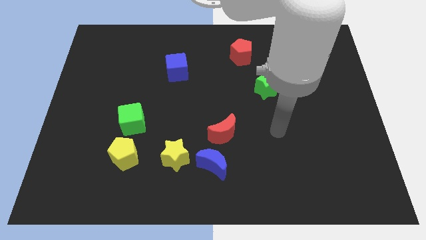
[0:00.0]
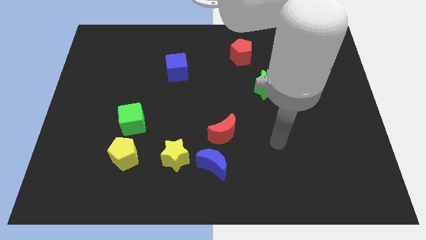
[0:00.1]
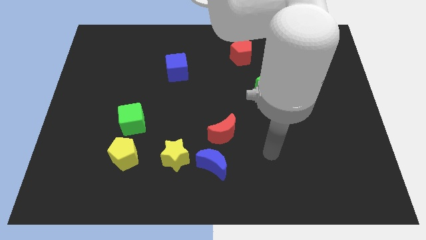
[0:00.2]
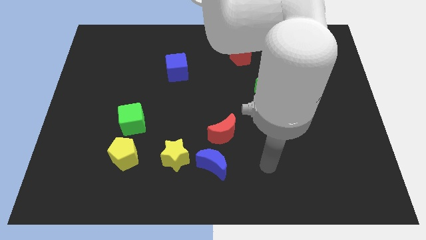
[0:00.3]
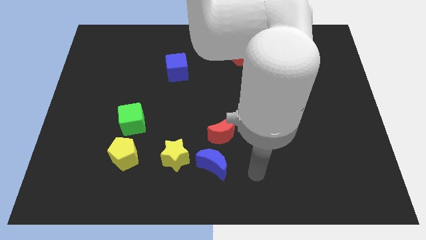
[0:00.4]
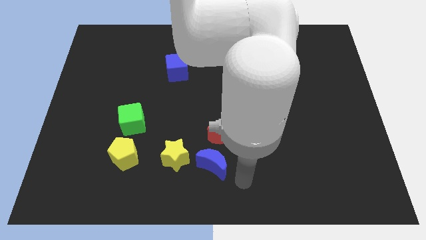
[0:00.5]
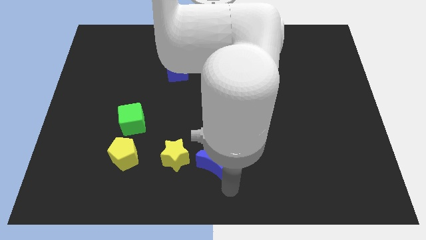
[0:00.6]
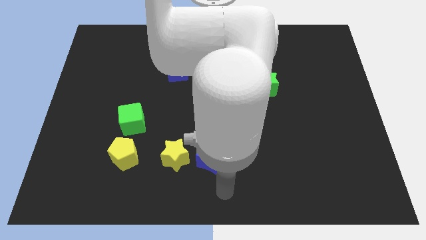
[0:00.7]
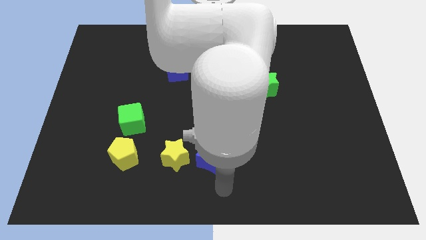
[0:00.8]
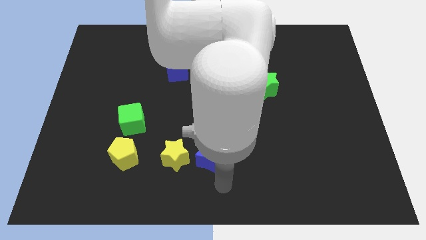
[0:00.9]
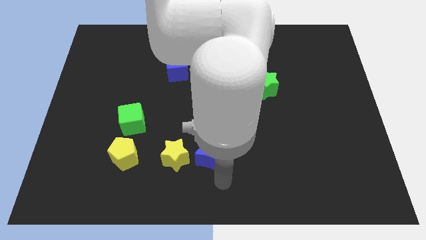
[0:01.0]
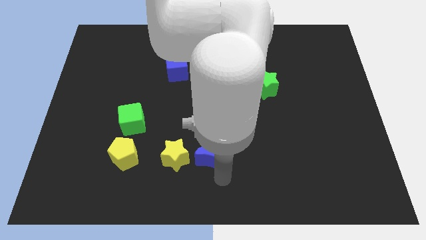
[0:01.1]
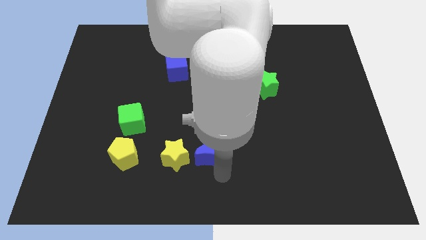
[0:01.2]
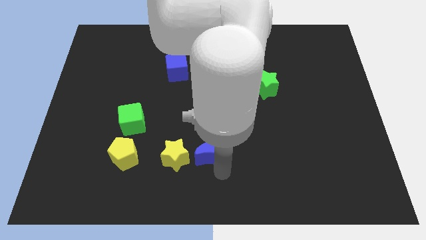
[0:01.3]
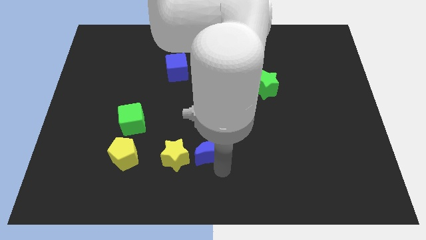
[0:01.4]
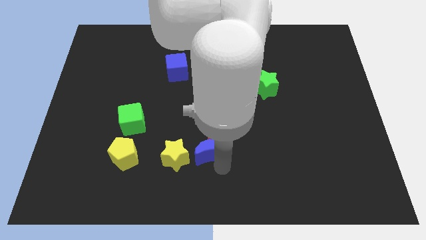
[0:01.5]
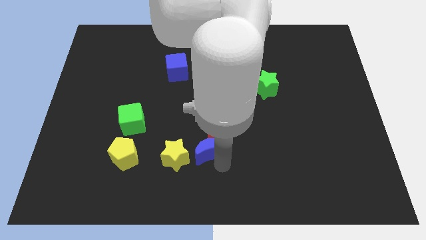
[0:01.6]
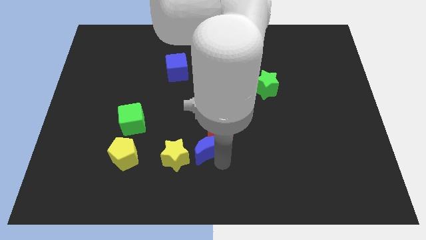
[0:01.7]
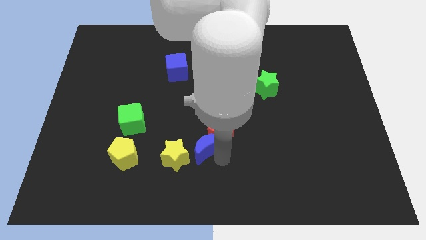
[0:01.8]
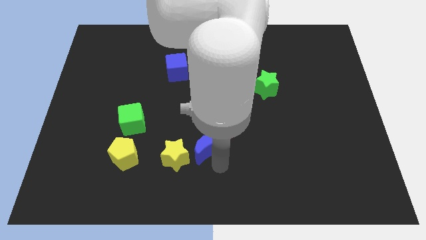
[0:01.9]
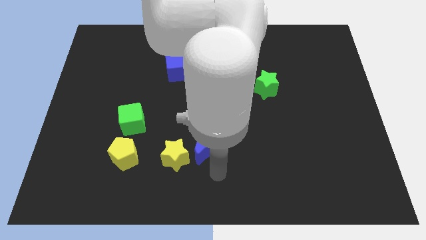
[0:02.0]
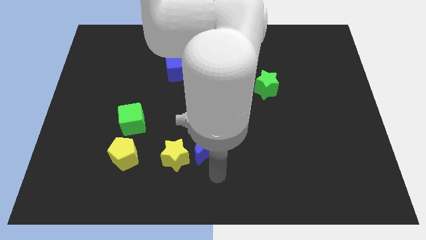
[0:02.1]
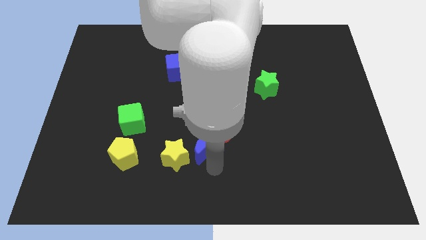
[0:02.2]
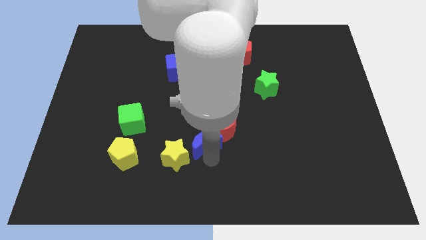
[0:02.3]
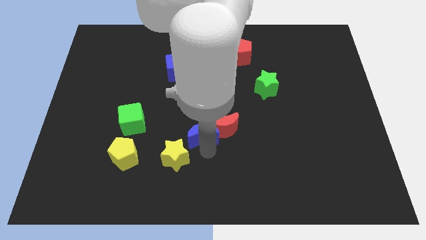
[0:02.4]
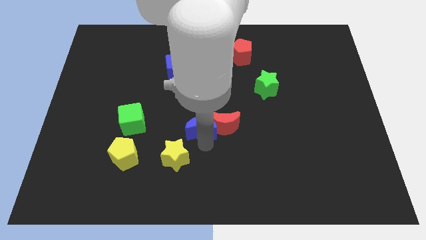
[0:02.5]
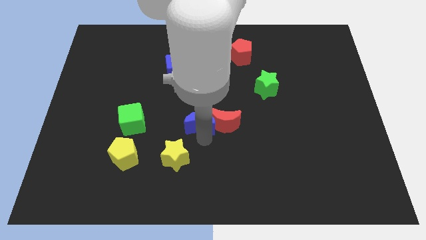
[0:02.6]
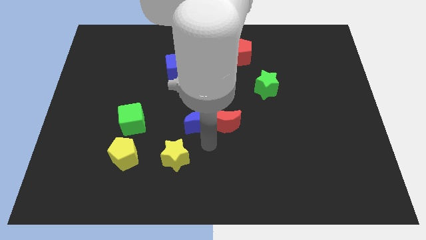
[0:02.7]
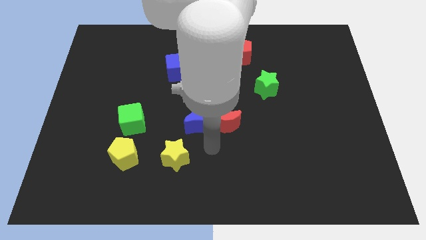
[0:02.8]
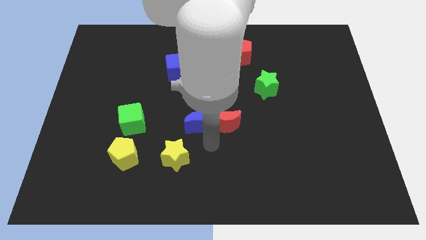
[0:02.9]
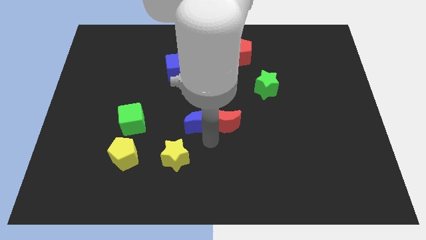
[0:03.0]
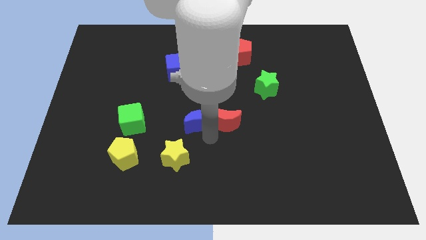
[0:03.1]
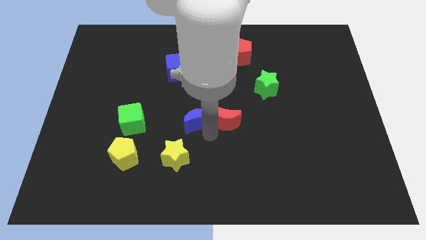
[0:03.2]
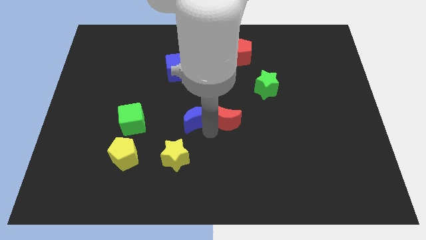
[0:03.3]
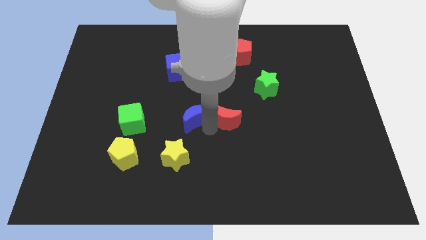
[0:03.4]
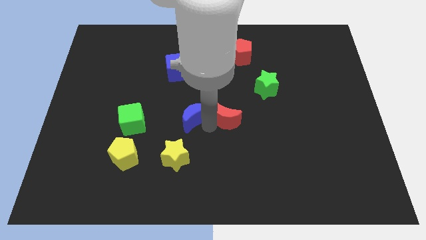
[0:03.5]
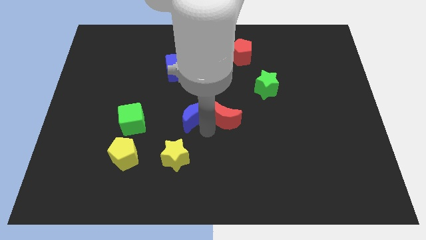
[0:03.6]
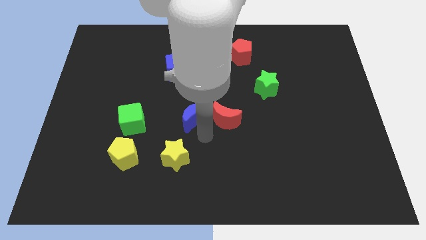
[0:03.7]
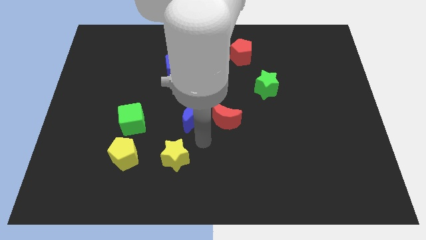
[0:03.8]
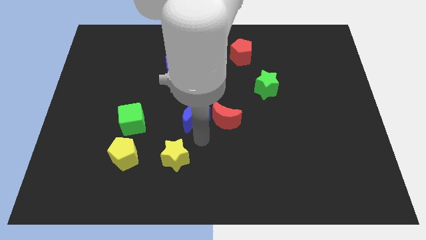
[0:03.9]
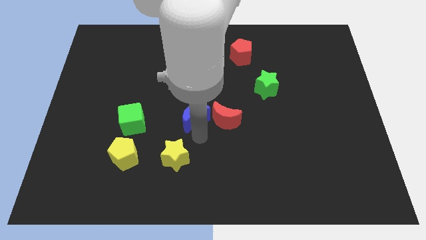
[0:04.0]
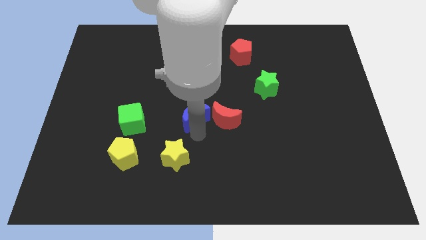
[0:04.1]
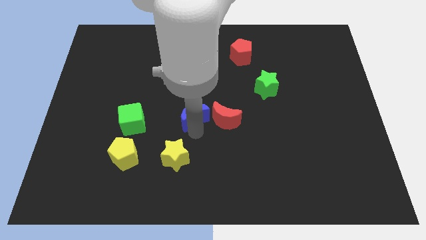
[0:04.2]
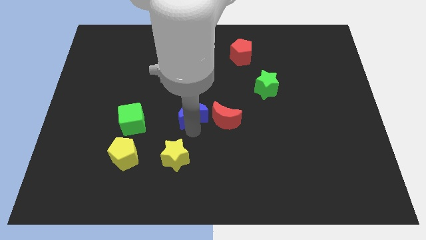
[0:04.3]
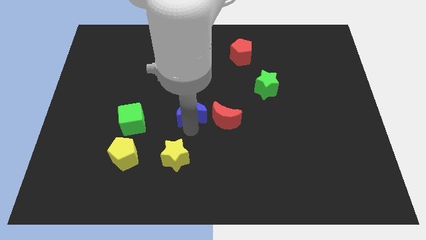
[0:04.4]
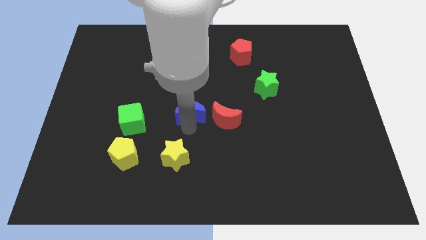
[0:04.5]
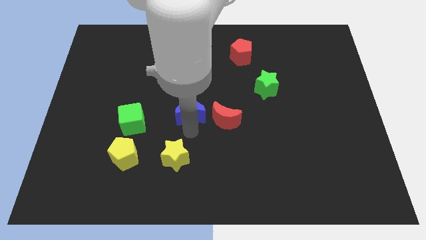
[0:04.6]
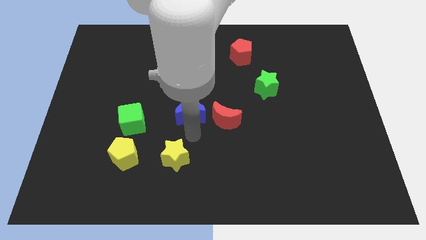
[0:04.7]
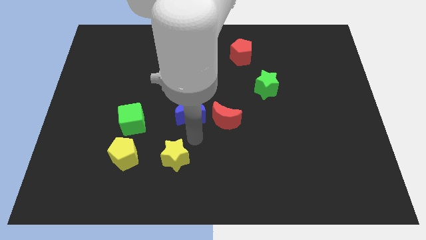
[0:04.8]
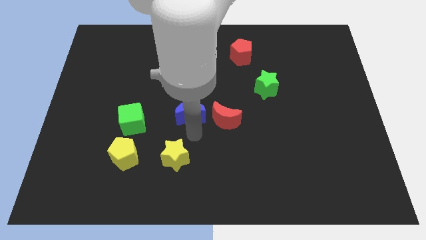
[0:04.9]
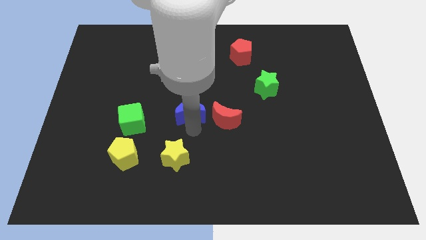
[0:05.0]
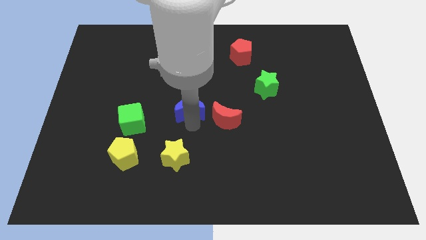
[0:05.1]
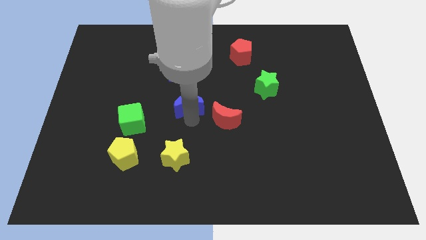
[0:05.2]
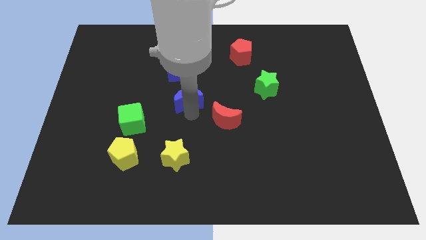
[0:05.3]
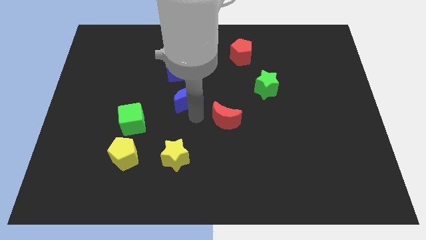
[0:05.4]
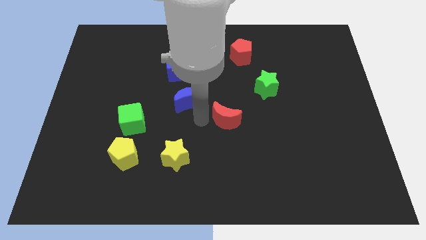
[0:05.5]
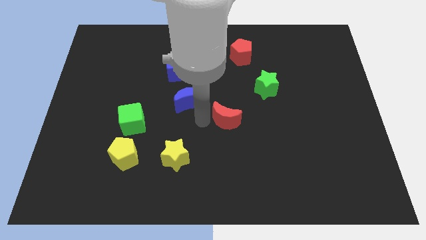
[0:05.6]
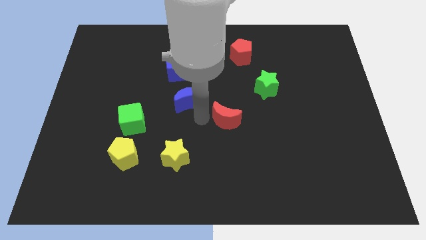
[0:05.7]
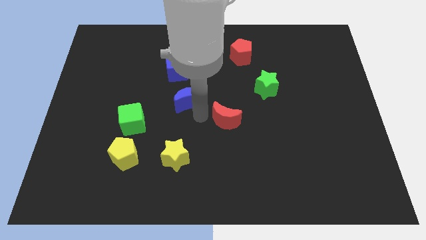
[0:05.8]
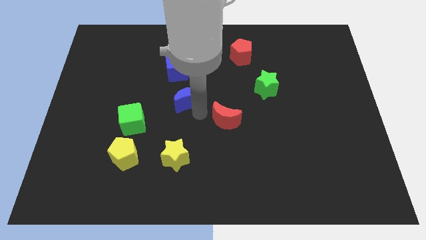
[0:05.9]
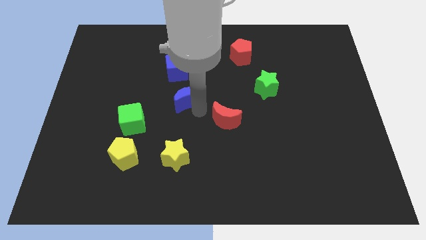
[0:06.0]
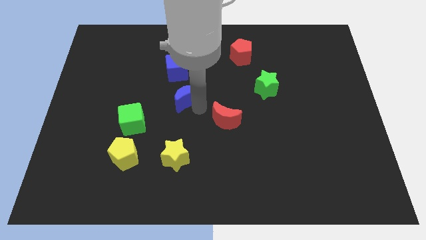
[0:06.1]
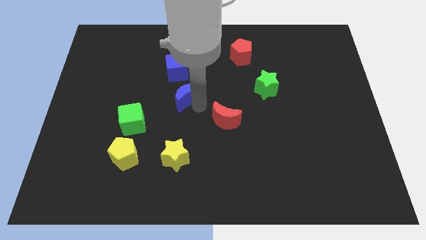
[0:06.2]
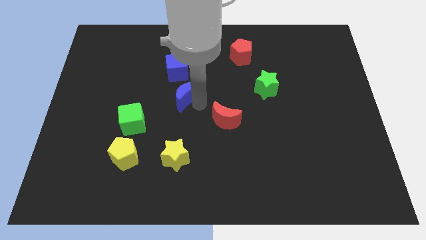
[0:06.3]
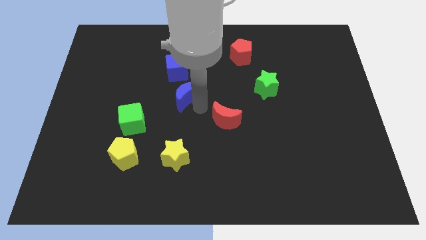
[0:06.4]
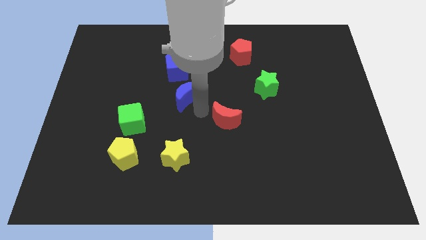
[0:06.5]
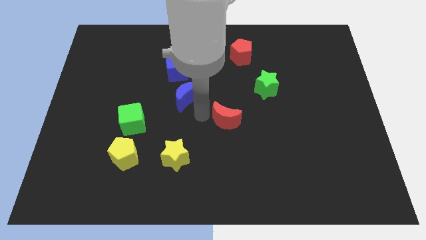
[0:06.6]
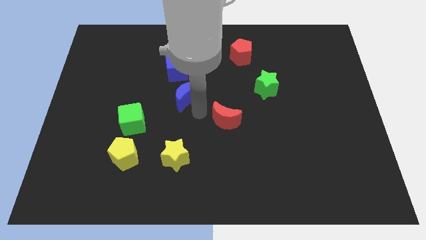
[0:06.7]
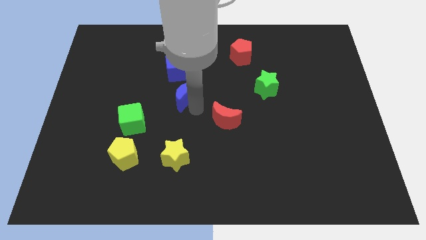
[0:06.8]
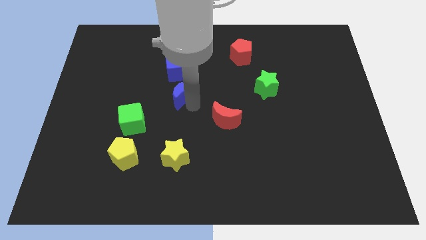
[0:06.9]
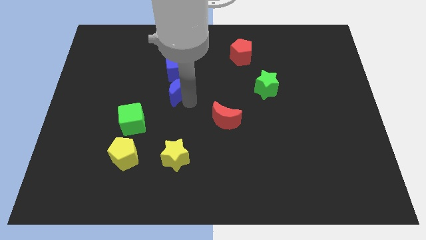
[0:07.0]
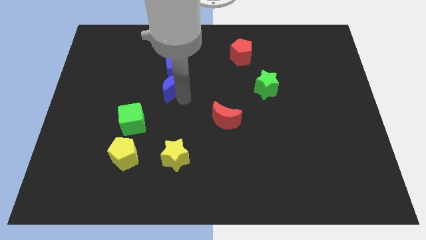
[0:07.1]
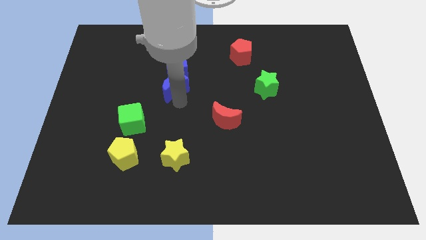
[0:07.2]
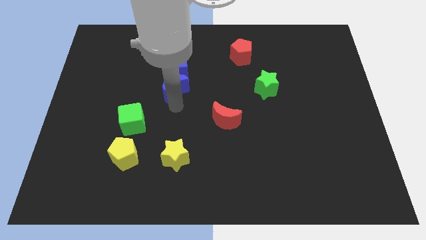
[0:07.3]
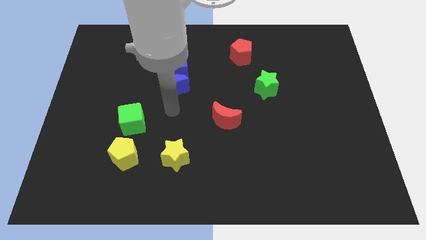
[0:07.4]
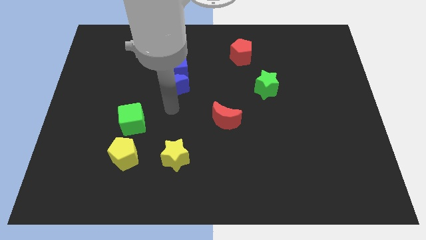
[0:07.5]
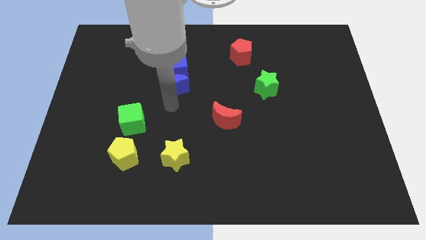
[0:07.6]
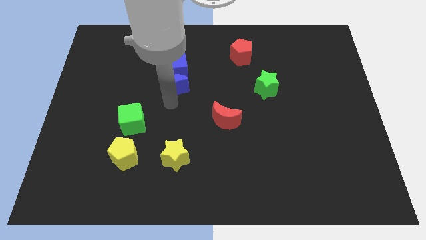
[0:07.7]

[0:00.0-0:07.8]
move the blue moon next to the blue cube

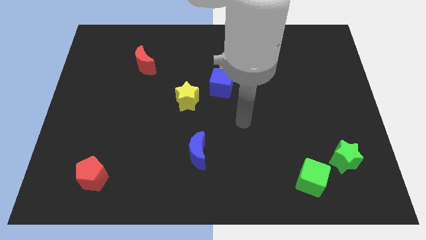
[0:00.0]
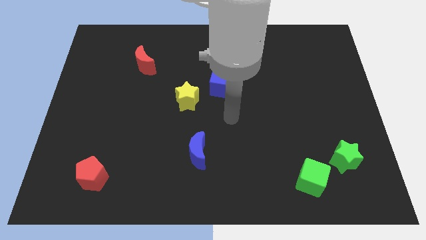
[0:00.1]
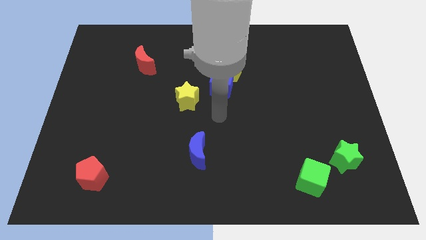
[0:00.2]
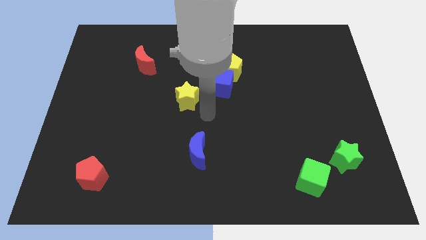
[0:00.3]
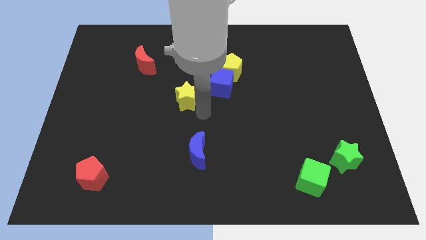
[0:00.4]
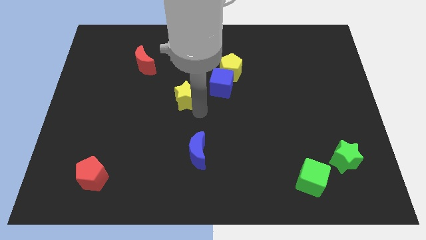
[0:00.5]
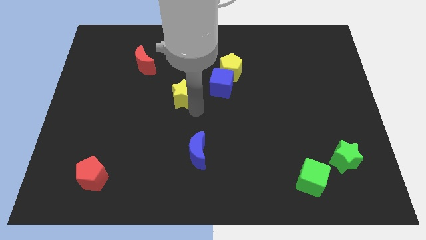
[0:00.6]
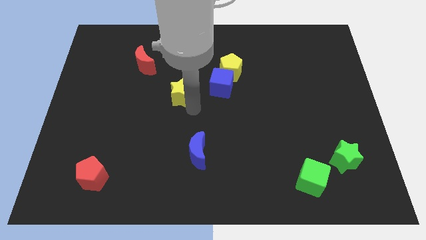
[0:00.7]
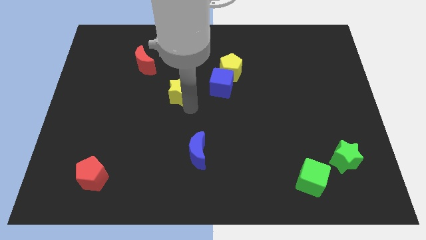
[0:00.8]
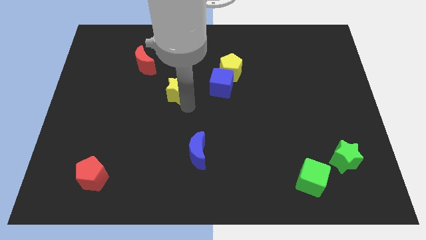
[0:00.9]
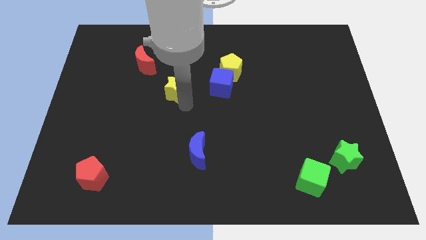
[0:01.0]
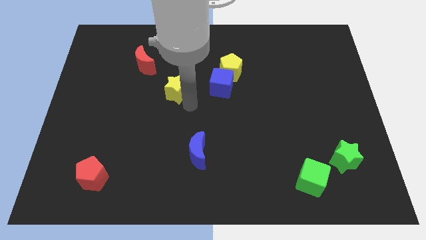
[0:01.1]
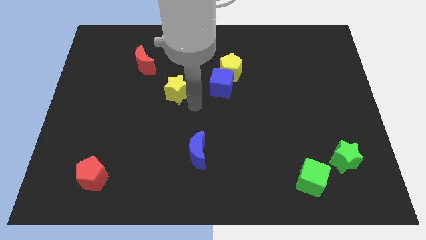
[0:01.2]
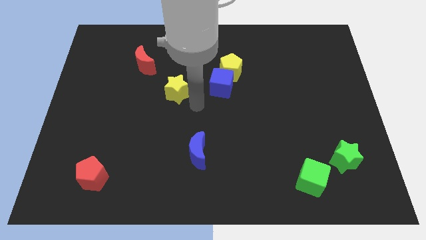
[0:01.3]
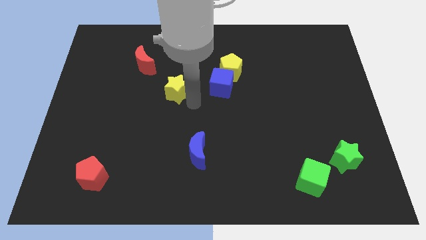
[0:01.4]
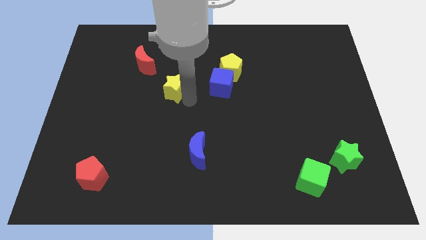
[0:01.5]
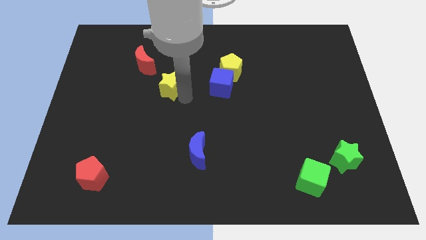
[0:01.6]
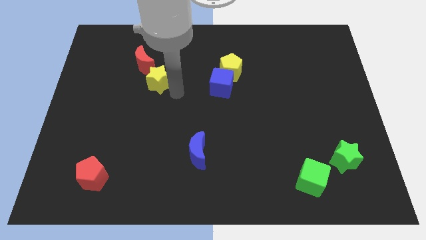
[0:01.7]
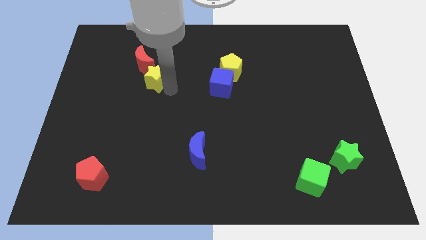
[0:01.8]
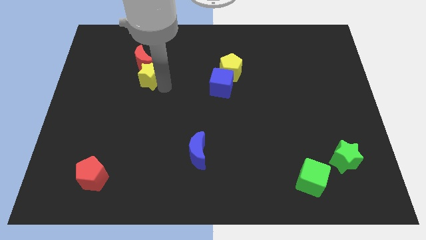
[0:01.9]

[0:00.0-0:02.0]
push the yellow star towards the red moon
